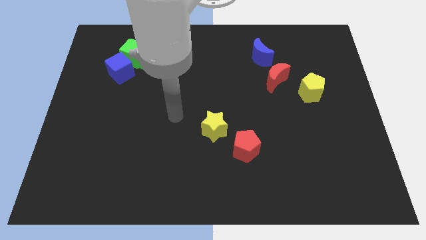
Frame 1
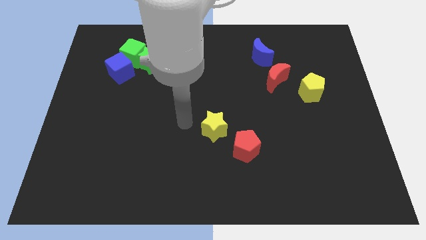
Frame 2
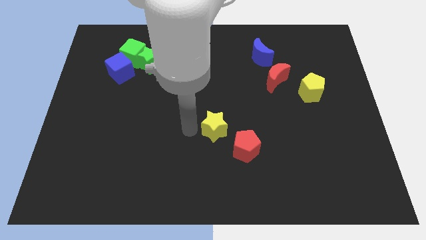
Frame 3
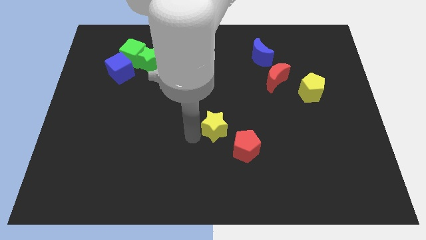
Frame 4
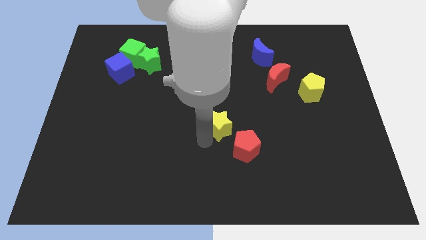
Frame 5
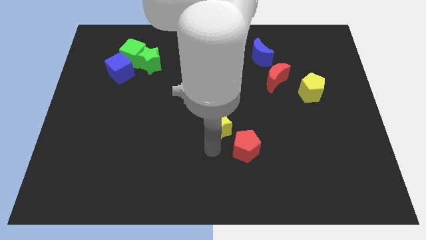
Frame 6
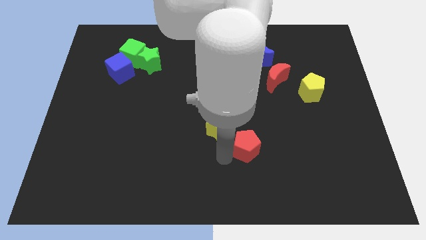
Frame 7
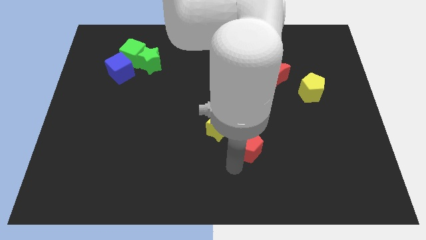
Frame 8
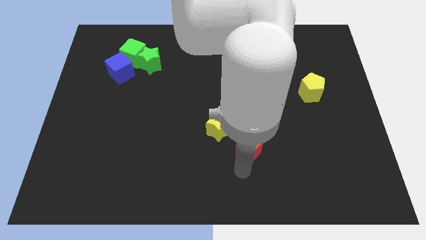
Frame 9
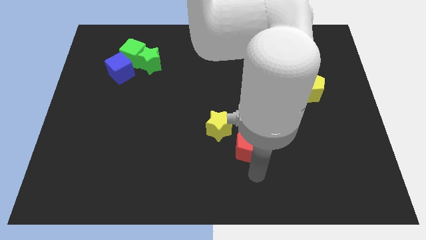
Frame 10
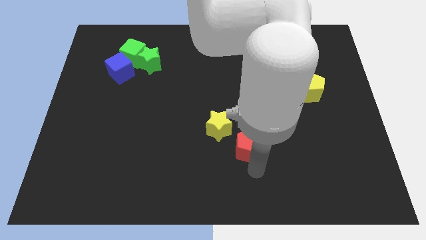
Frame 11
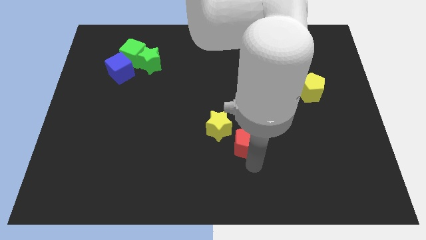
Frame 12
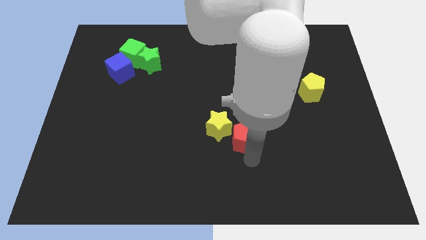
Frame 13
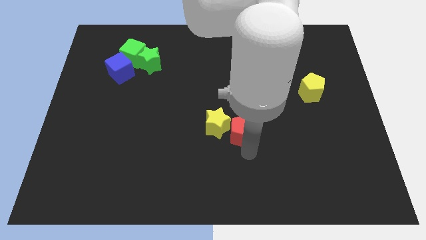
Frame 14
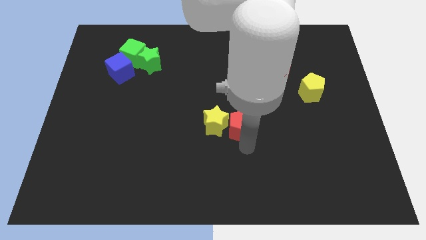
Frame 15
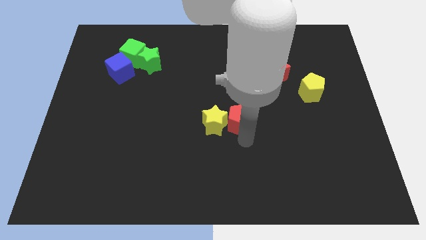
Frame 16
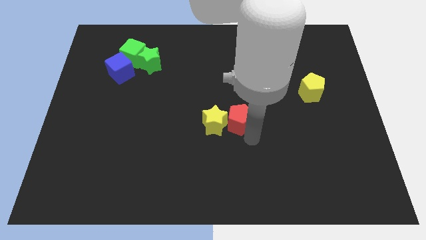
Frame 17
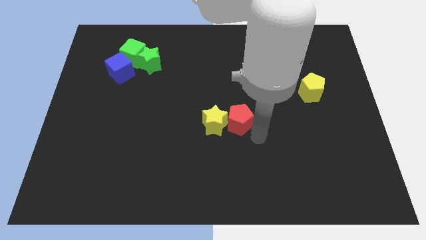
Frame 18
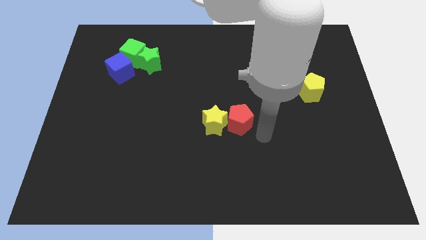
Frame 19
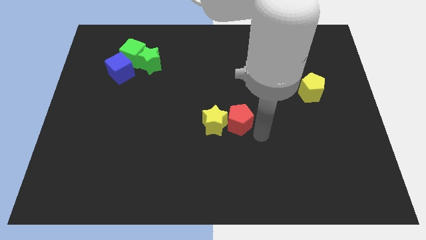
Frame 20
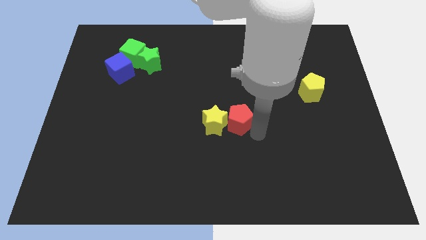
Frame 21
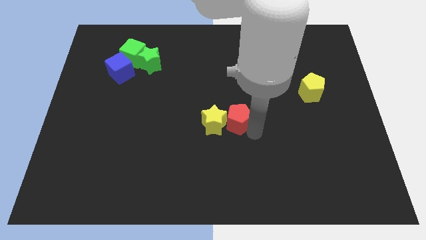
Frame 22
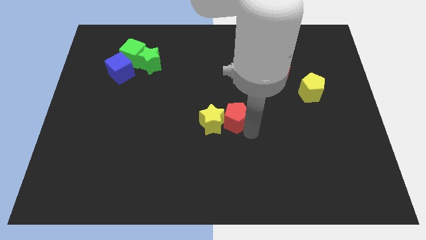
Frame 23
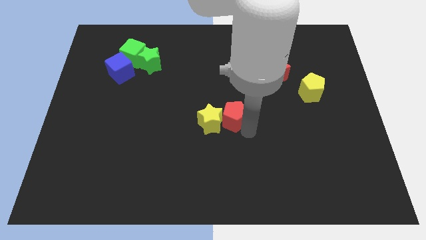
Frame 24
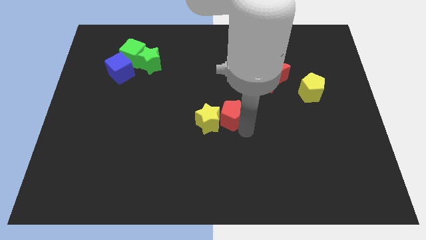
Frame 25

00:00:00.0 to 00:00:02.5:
move the red pentagon upwards and left diagonally a little

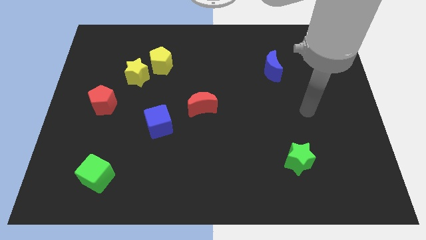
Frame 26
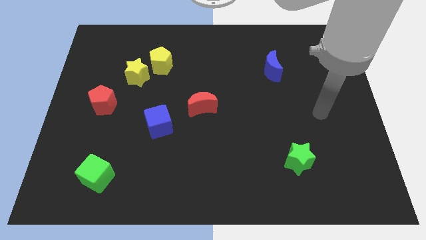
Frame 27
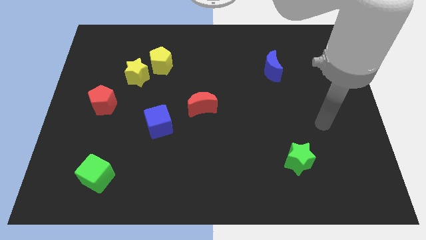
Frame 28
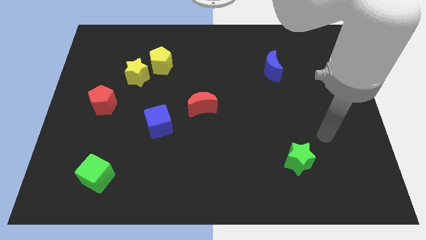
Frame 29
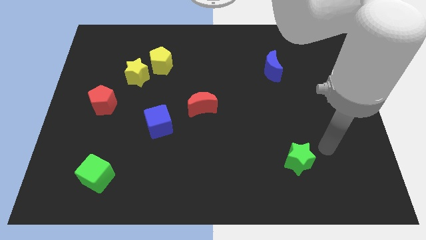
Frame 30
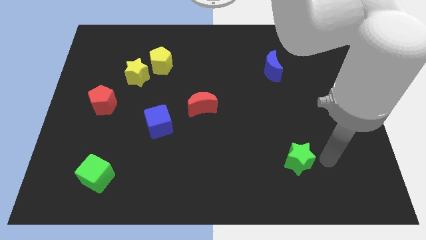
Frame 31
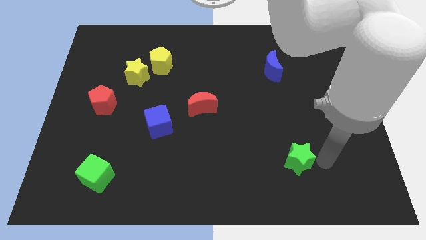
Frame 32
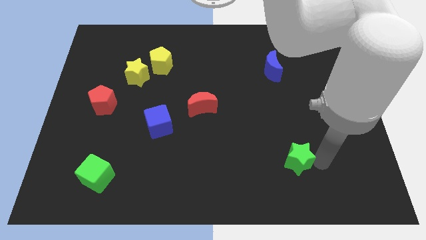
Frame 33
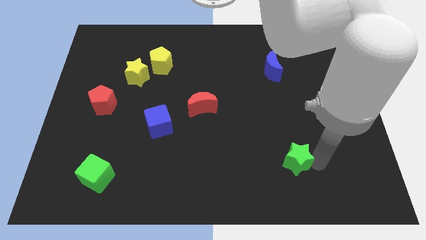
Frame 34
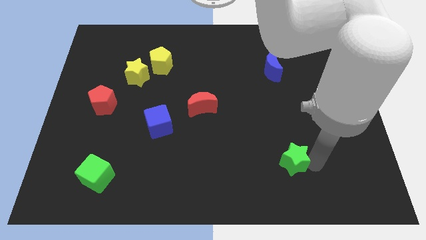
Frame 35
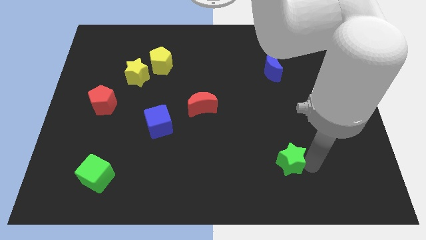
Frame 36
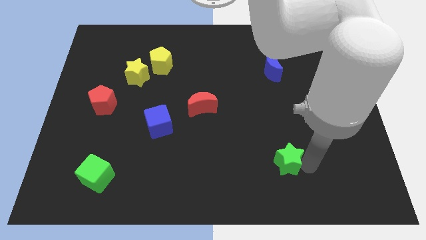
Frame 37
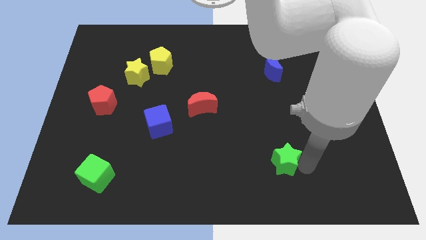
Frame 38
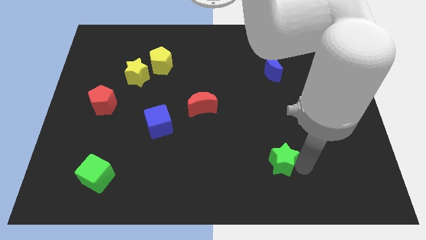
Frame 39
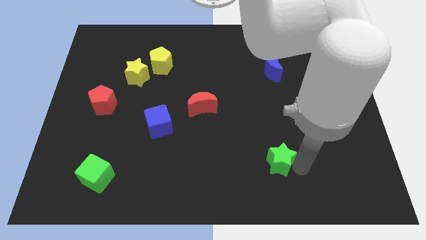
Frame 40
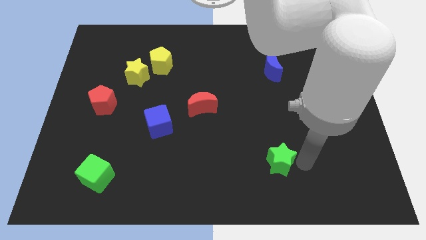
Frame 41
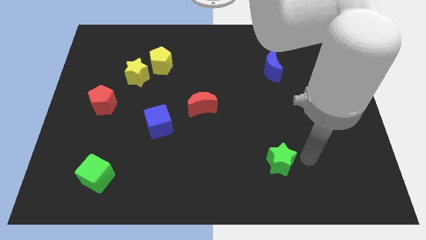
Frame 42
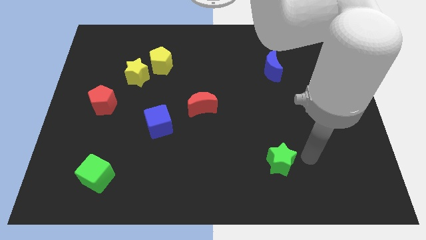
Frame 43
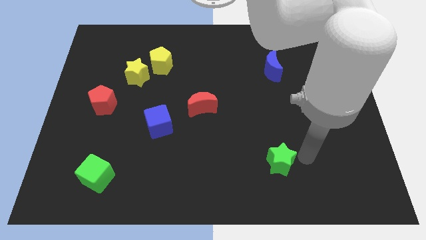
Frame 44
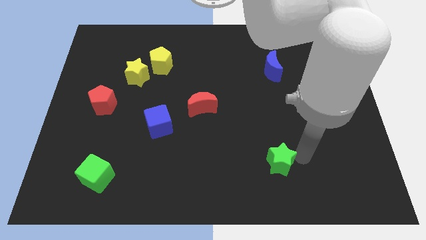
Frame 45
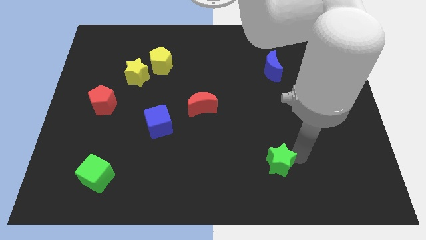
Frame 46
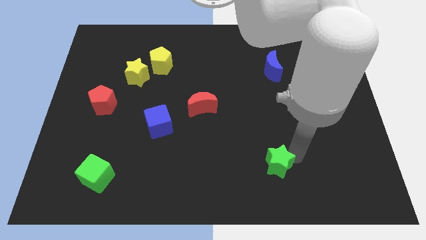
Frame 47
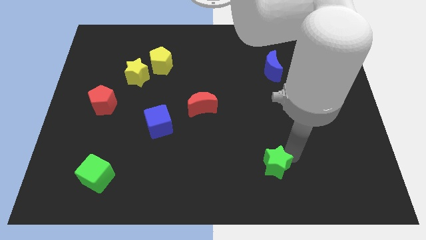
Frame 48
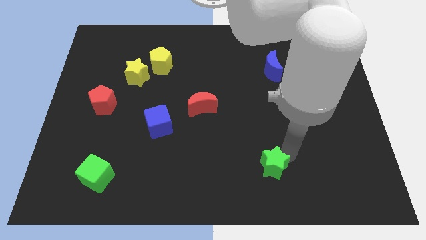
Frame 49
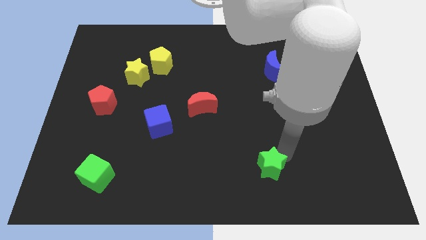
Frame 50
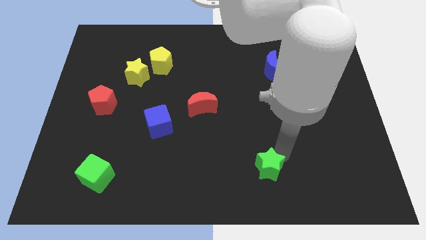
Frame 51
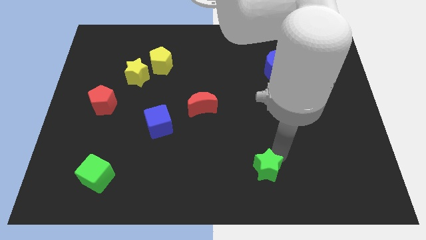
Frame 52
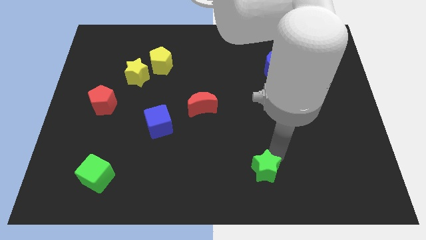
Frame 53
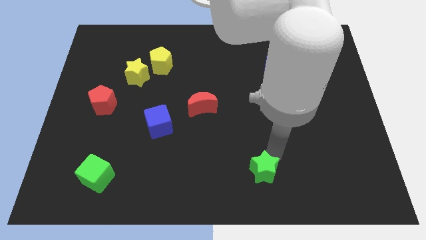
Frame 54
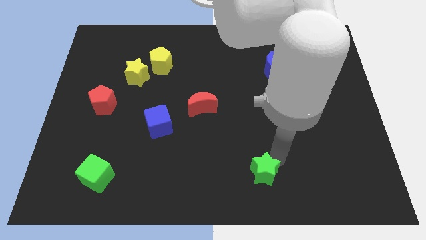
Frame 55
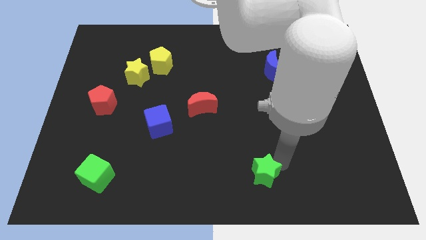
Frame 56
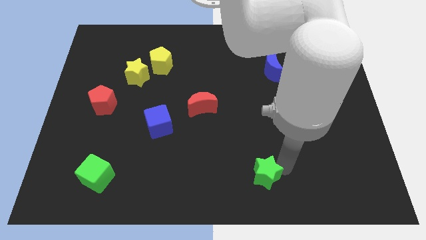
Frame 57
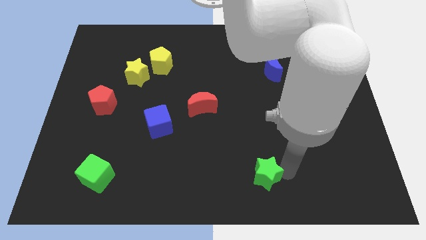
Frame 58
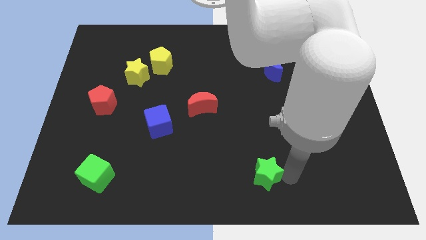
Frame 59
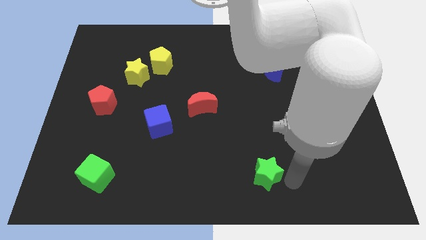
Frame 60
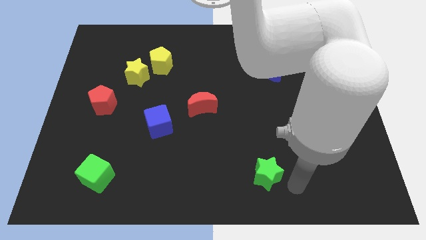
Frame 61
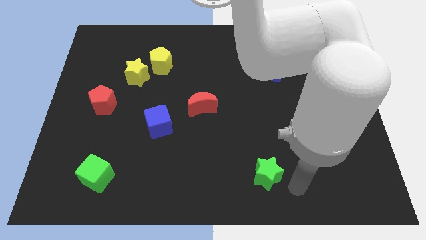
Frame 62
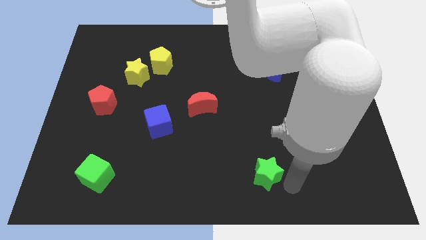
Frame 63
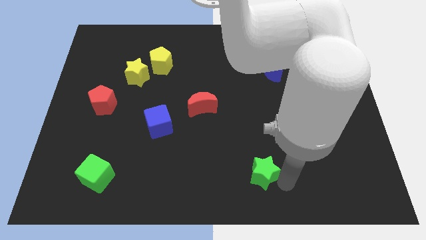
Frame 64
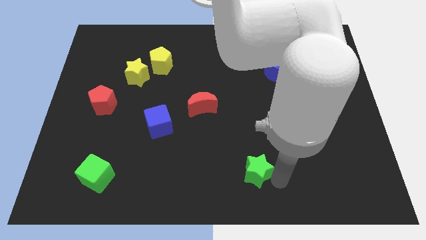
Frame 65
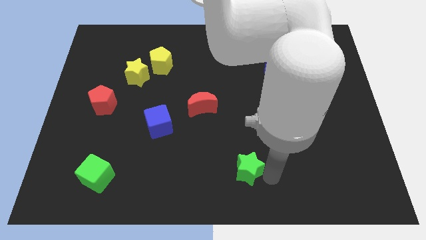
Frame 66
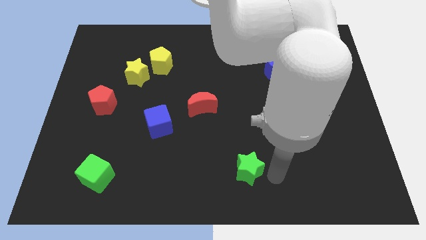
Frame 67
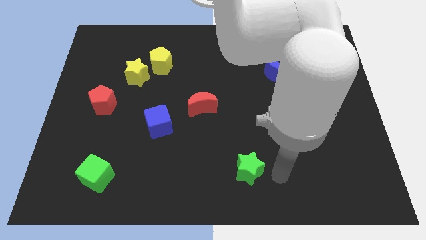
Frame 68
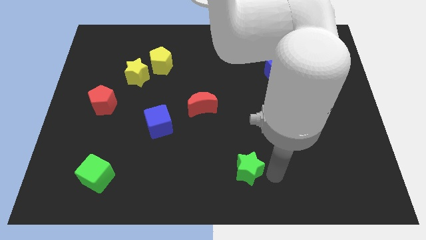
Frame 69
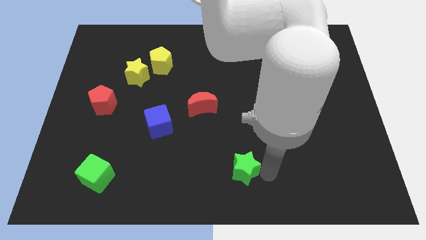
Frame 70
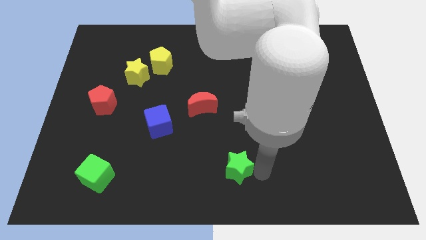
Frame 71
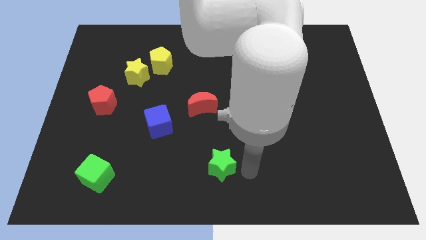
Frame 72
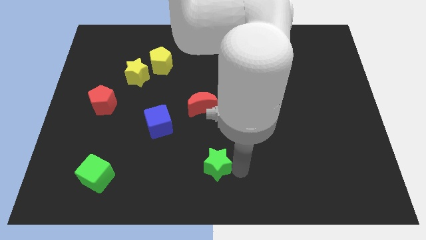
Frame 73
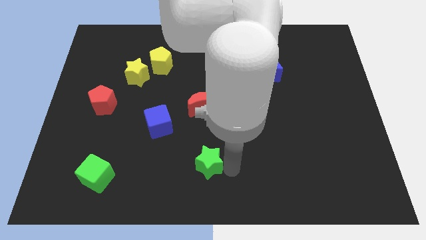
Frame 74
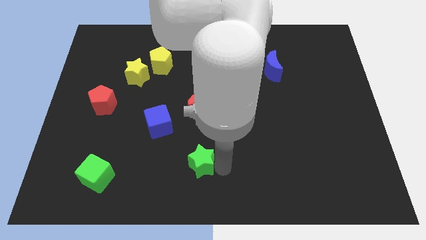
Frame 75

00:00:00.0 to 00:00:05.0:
slide the green star left

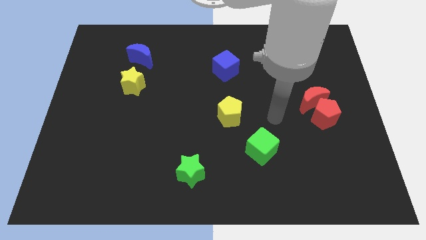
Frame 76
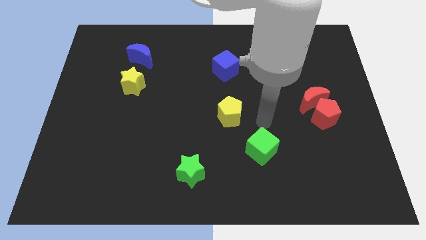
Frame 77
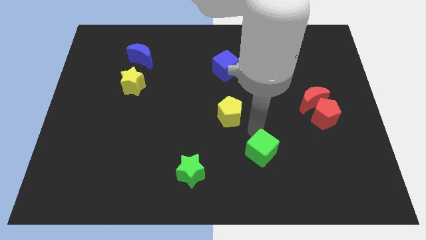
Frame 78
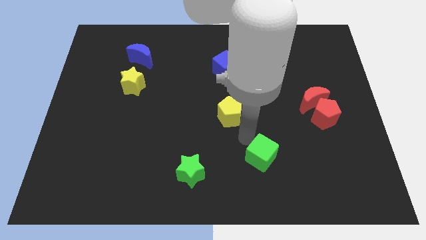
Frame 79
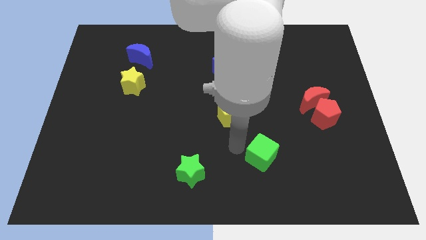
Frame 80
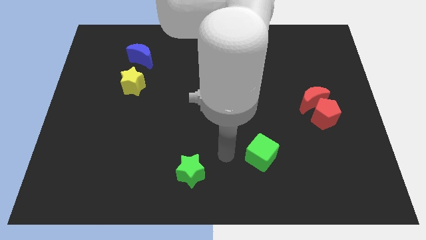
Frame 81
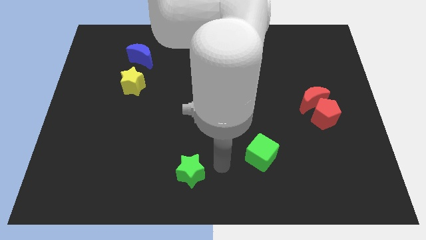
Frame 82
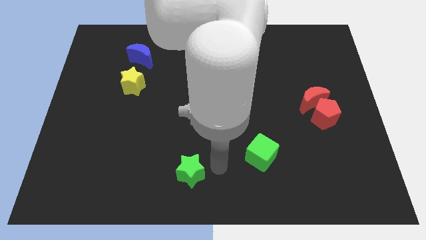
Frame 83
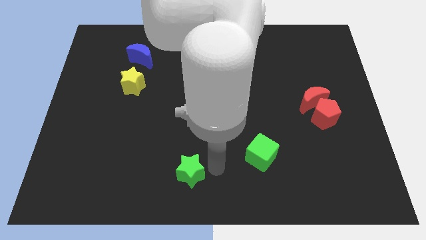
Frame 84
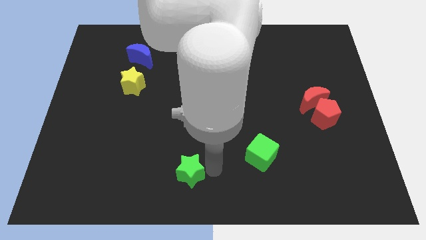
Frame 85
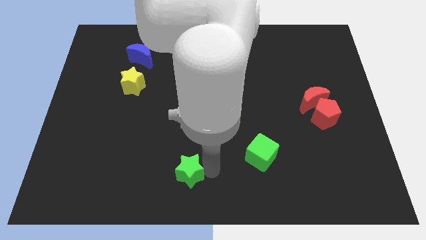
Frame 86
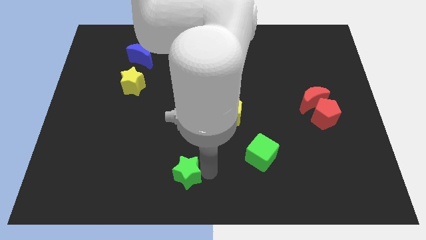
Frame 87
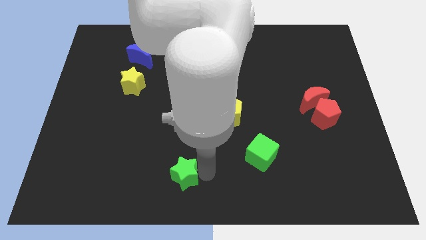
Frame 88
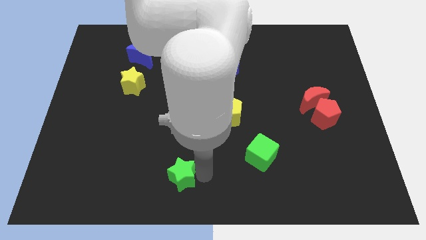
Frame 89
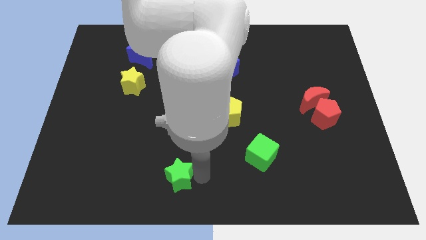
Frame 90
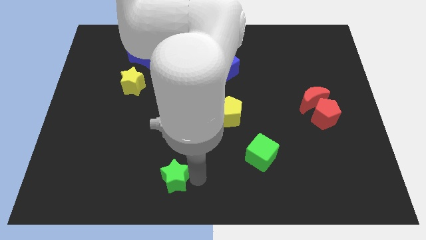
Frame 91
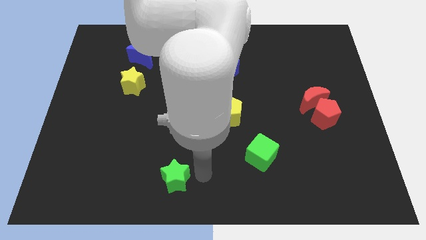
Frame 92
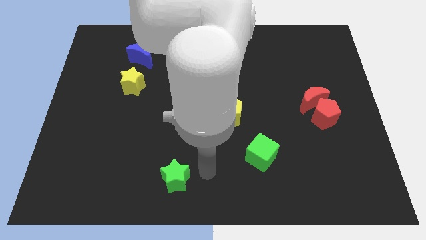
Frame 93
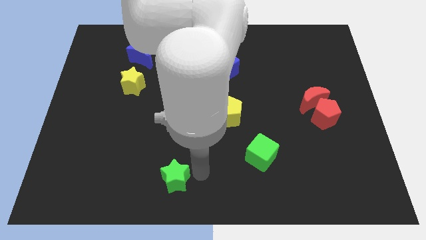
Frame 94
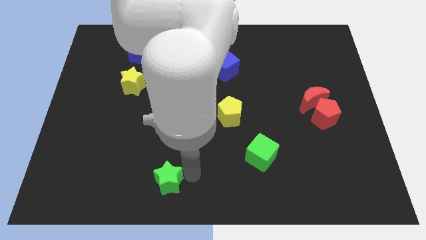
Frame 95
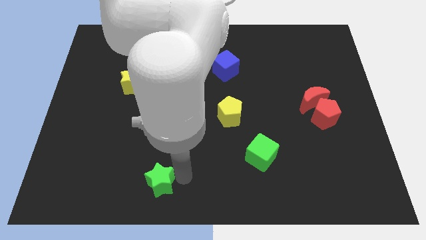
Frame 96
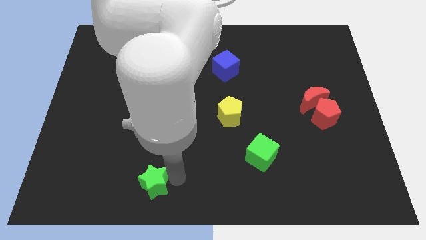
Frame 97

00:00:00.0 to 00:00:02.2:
move the green star a little bit left
